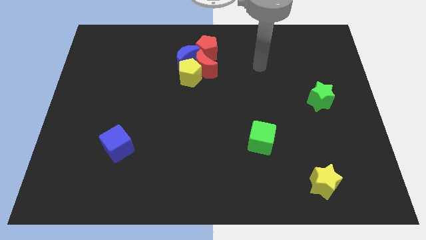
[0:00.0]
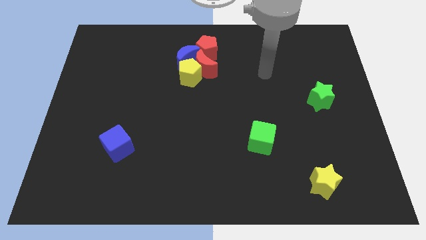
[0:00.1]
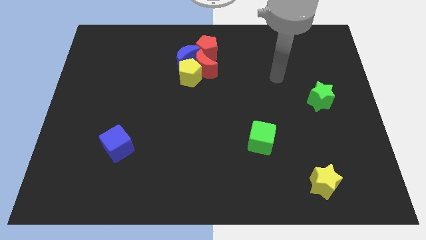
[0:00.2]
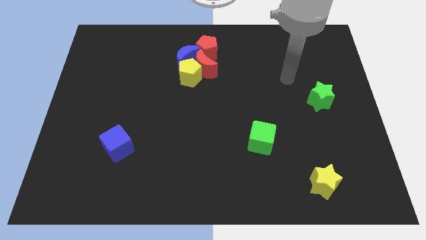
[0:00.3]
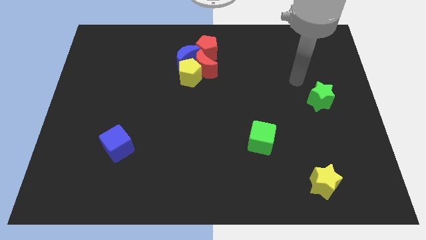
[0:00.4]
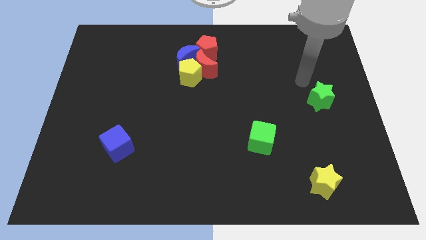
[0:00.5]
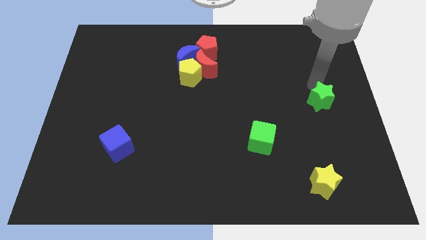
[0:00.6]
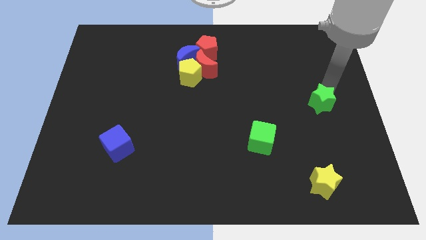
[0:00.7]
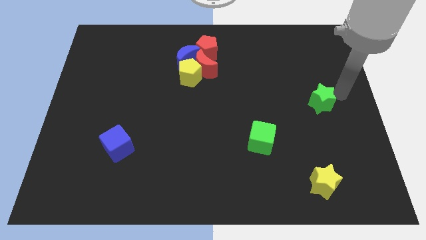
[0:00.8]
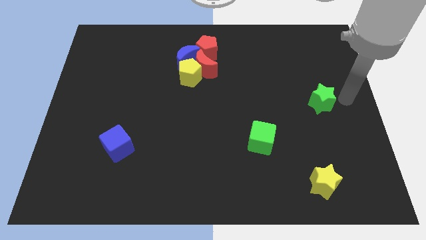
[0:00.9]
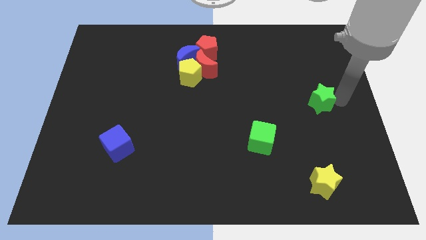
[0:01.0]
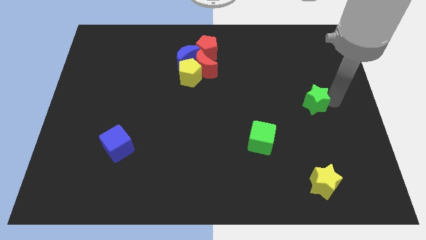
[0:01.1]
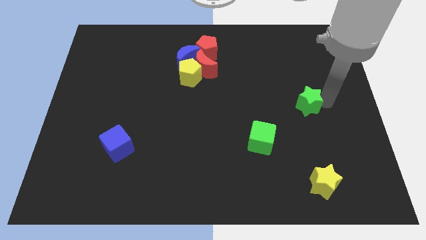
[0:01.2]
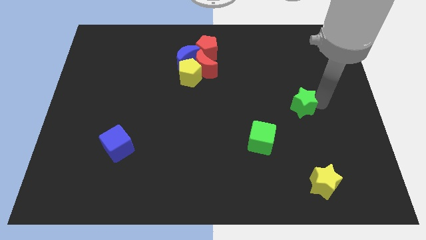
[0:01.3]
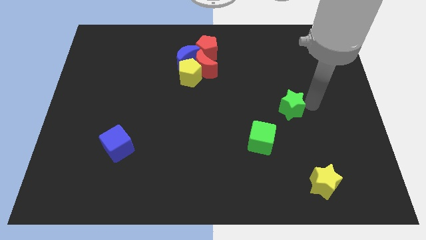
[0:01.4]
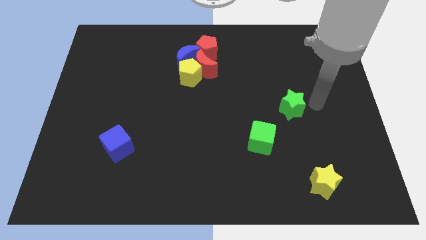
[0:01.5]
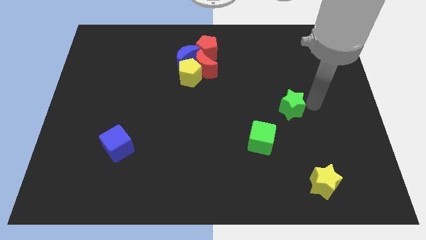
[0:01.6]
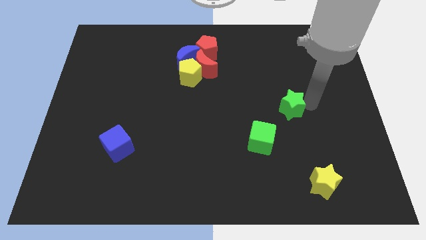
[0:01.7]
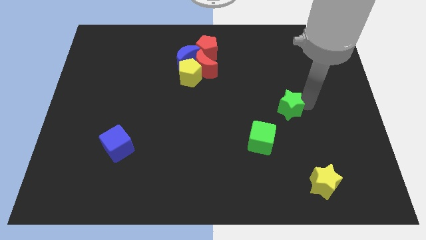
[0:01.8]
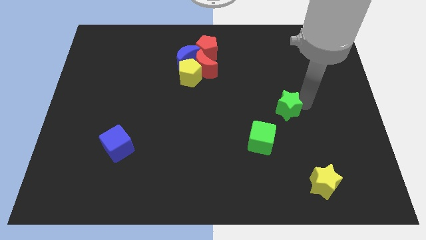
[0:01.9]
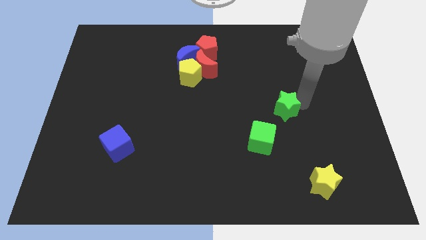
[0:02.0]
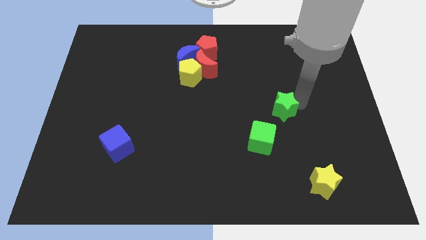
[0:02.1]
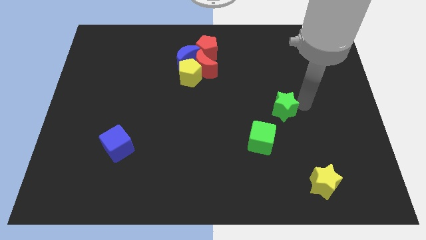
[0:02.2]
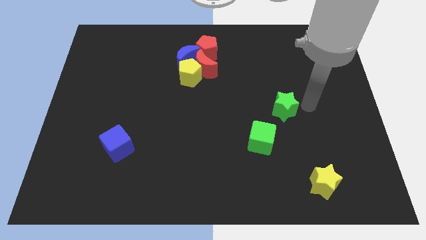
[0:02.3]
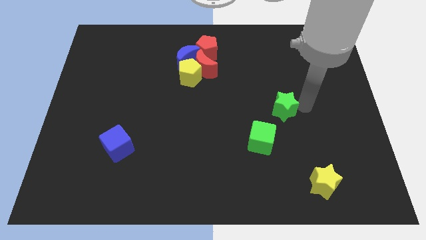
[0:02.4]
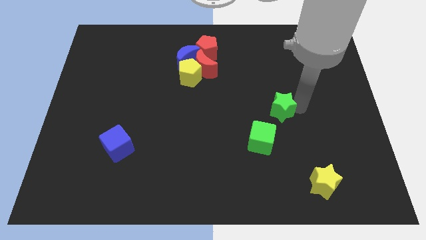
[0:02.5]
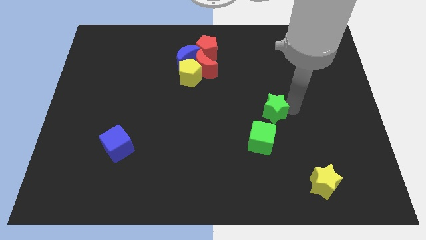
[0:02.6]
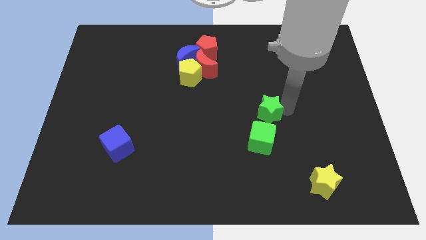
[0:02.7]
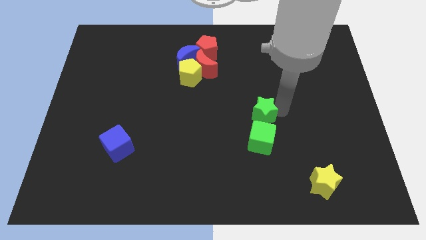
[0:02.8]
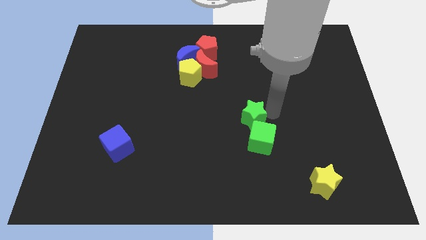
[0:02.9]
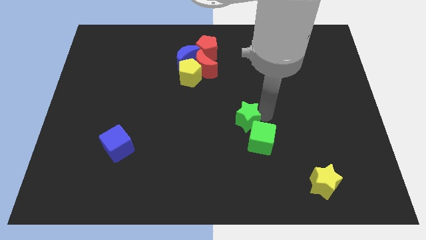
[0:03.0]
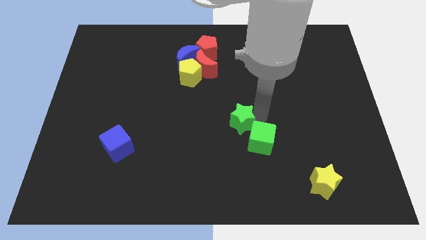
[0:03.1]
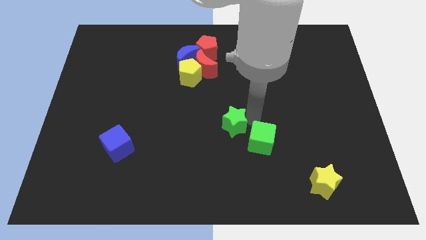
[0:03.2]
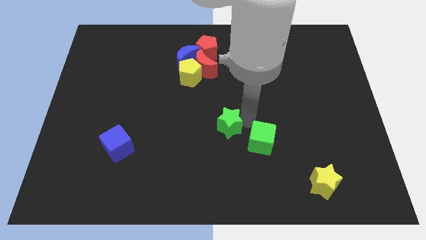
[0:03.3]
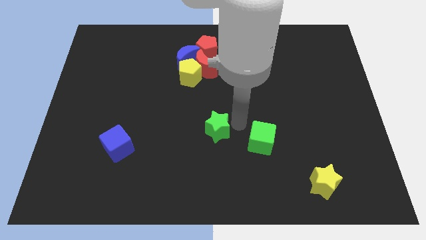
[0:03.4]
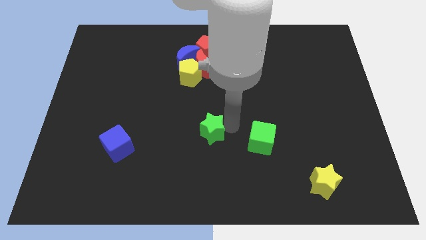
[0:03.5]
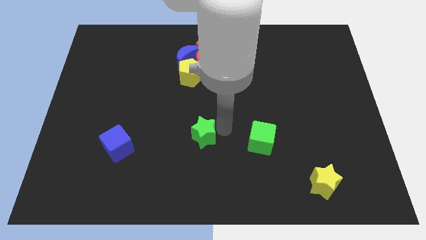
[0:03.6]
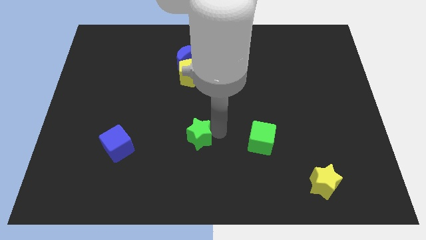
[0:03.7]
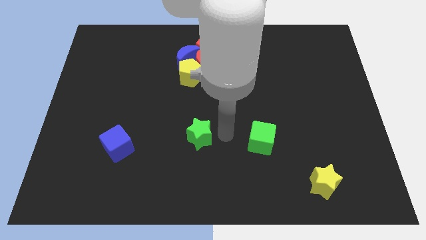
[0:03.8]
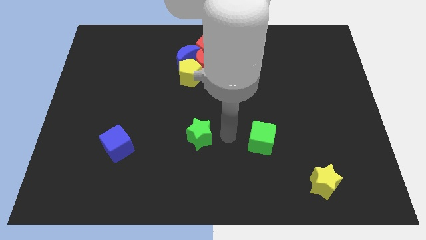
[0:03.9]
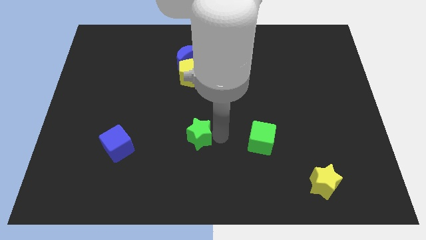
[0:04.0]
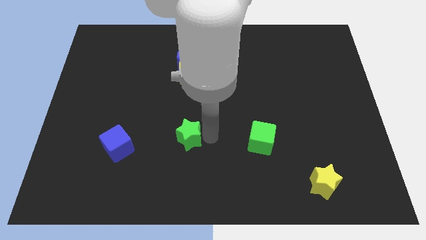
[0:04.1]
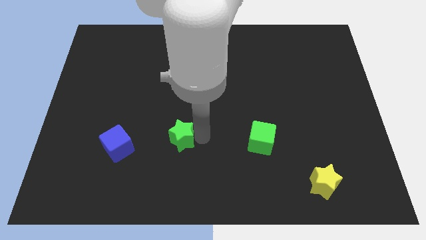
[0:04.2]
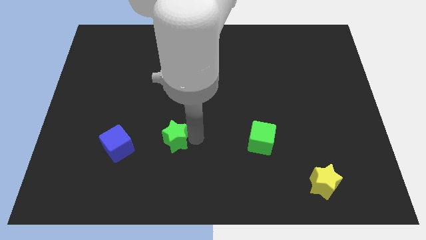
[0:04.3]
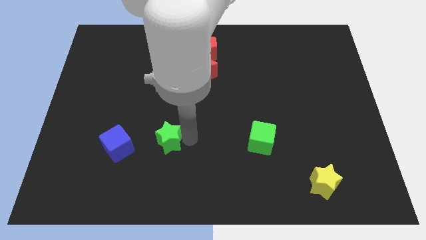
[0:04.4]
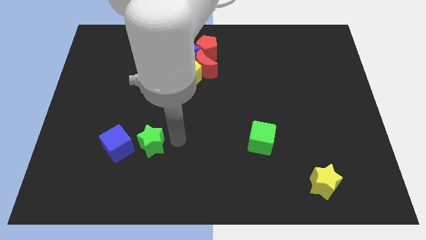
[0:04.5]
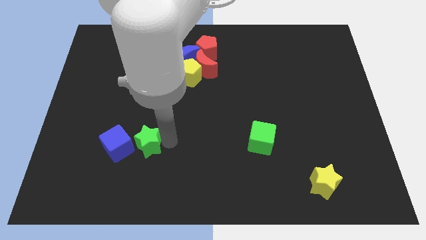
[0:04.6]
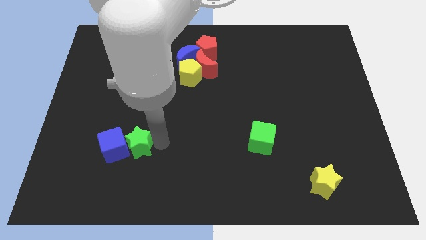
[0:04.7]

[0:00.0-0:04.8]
put the green star close to the blue cube

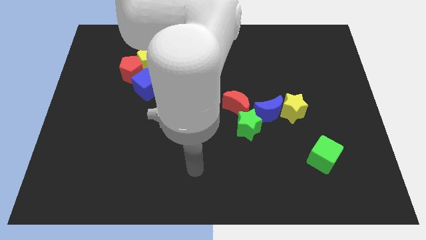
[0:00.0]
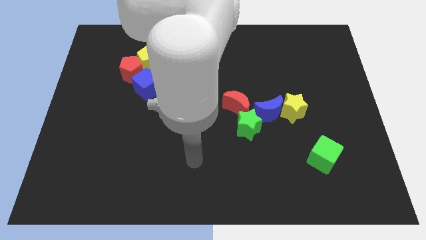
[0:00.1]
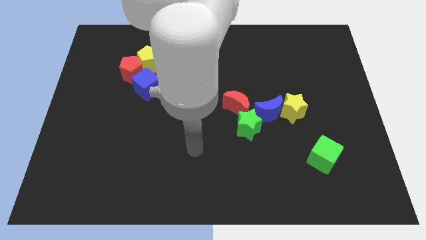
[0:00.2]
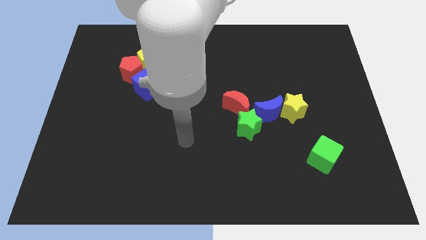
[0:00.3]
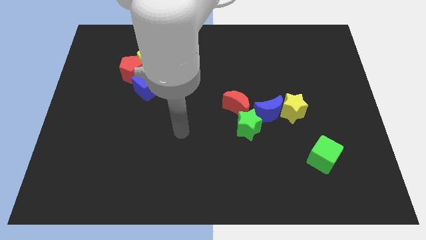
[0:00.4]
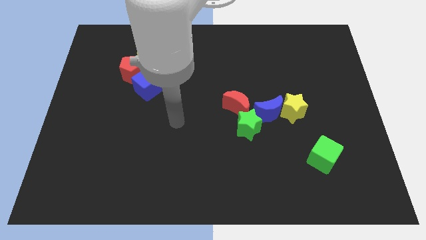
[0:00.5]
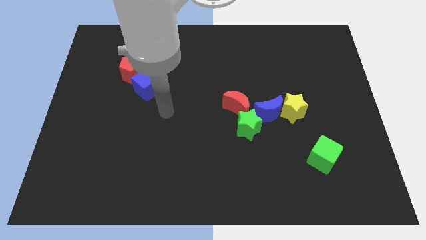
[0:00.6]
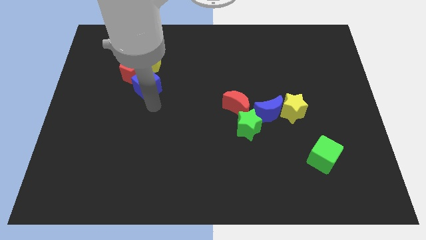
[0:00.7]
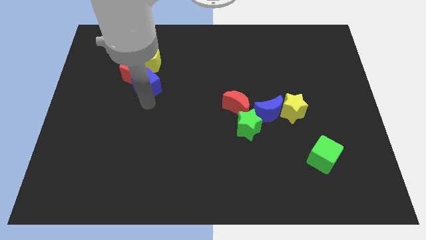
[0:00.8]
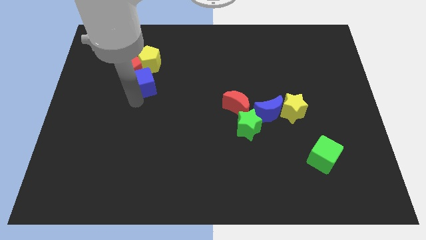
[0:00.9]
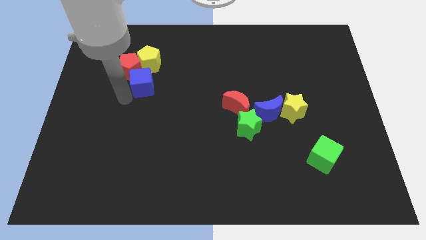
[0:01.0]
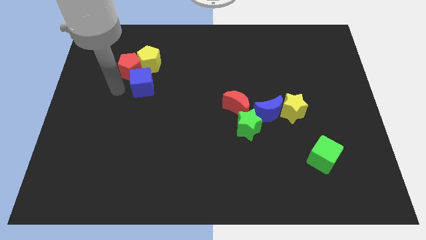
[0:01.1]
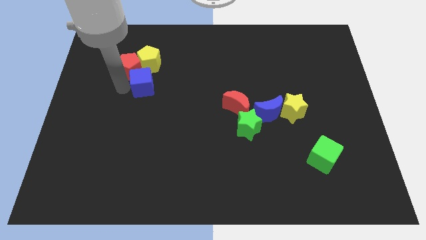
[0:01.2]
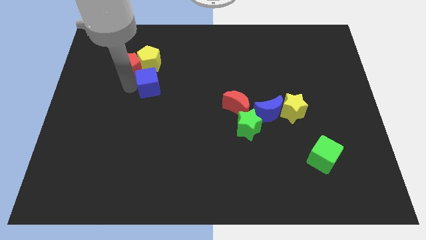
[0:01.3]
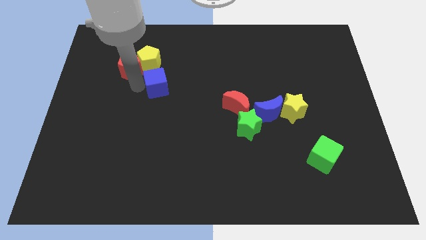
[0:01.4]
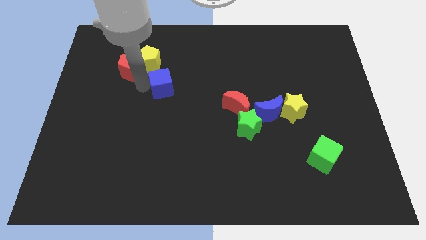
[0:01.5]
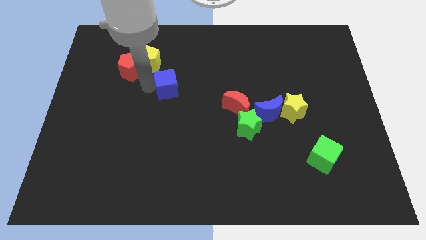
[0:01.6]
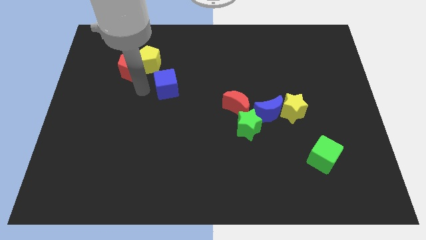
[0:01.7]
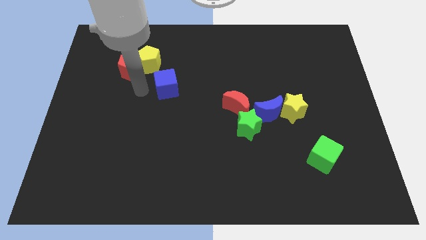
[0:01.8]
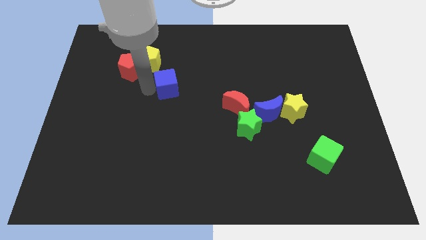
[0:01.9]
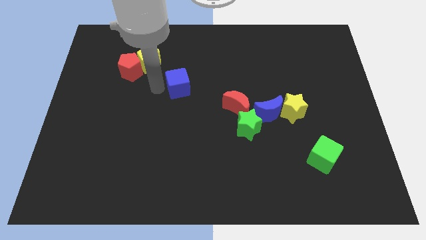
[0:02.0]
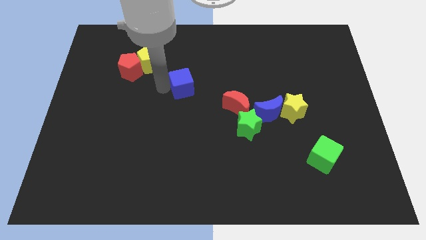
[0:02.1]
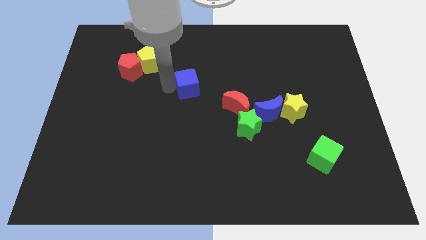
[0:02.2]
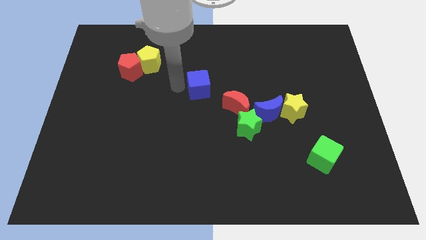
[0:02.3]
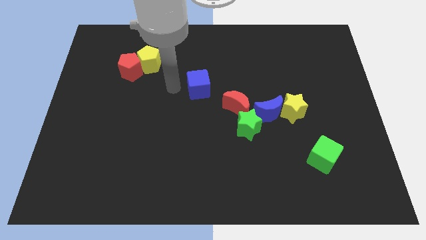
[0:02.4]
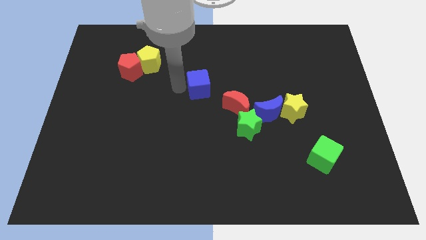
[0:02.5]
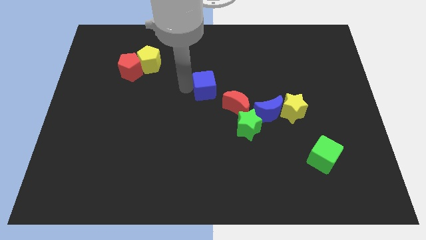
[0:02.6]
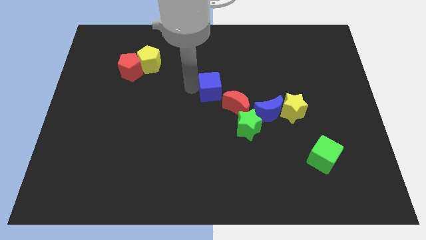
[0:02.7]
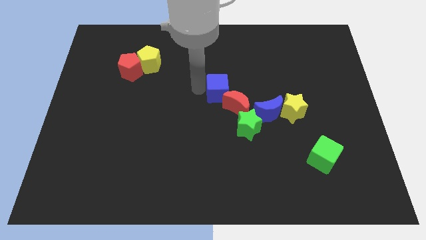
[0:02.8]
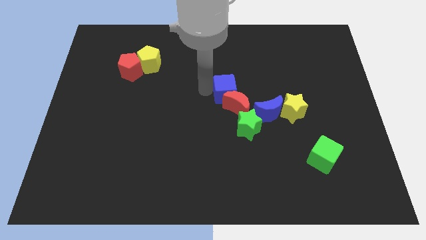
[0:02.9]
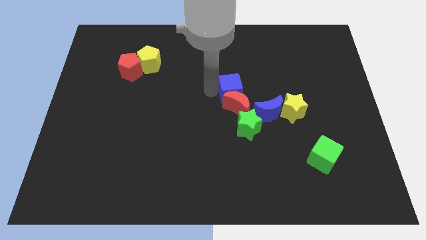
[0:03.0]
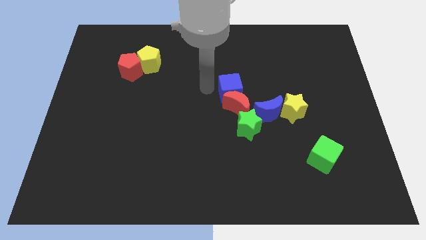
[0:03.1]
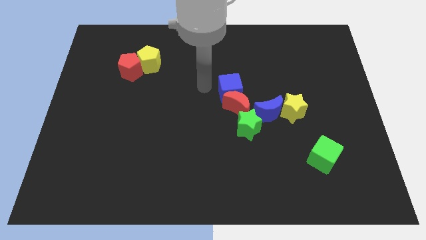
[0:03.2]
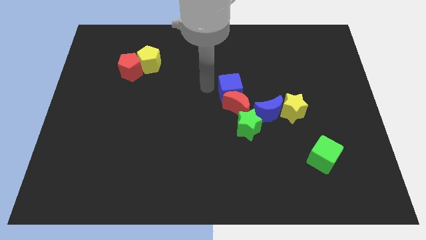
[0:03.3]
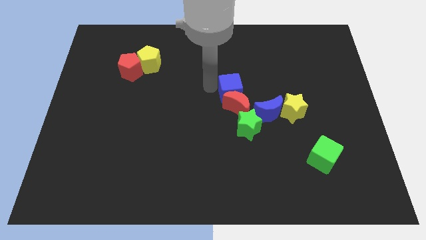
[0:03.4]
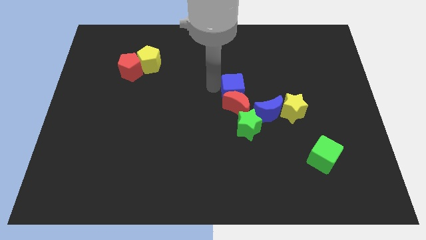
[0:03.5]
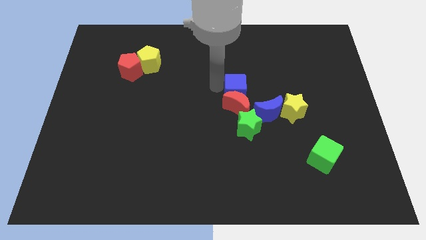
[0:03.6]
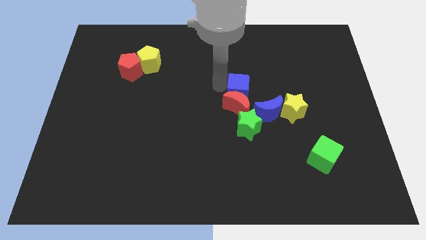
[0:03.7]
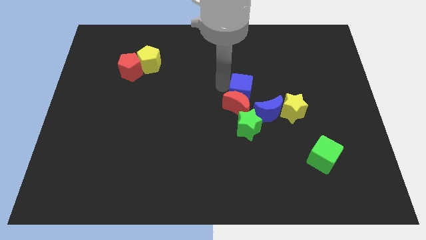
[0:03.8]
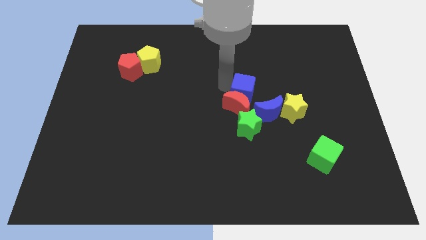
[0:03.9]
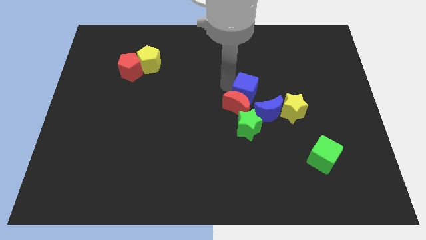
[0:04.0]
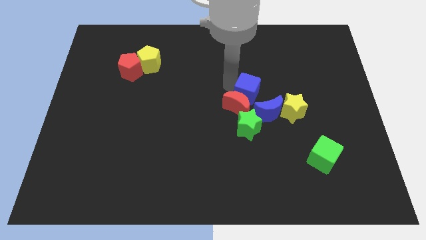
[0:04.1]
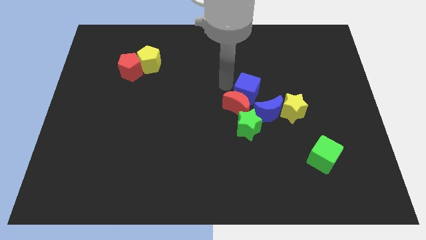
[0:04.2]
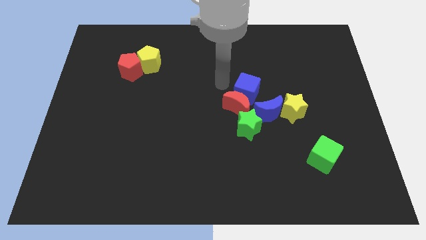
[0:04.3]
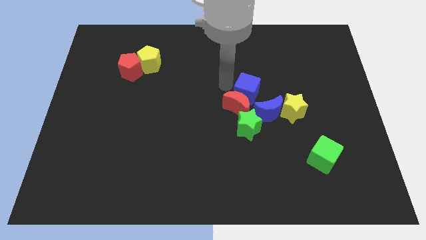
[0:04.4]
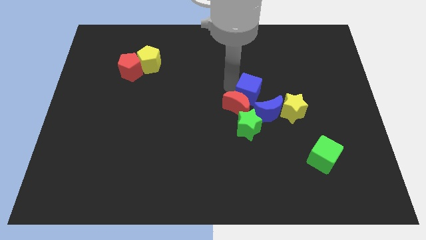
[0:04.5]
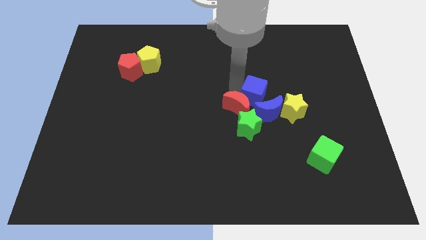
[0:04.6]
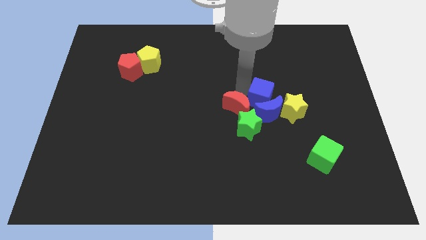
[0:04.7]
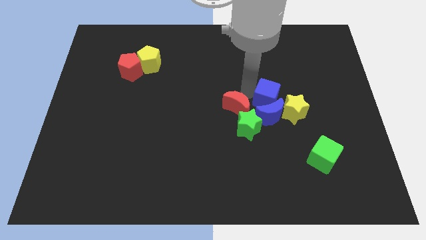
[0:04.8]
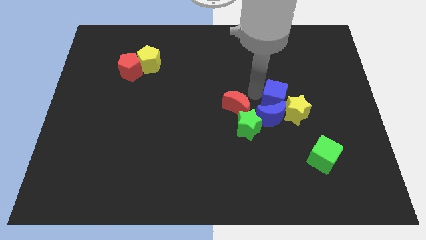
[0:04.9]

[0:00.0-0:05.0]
put the blue cube towards the yellow star
